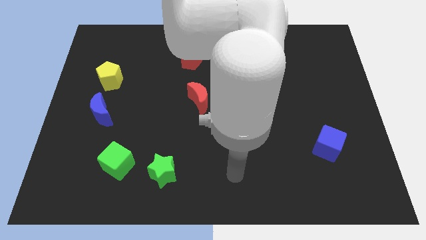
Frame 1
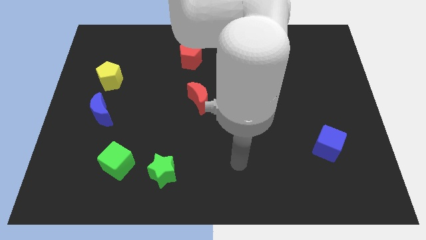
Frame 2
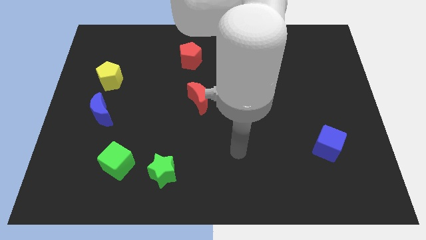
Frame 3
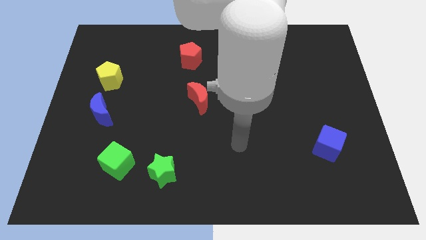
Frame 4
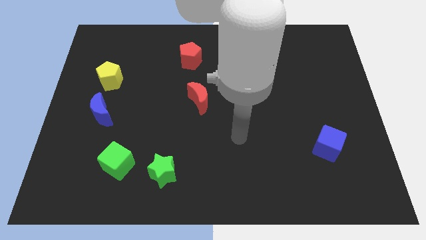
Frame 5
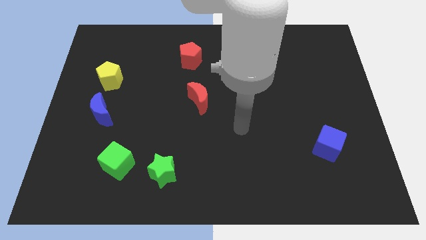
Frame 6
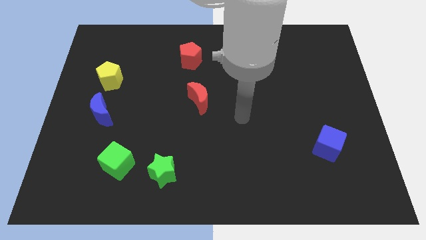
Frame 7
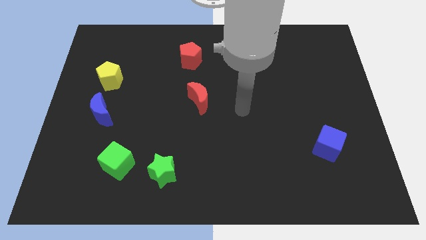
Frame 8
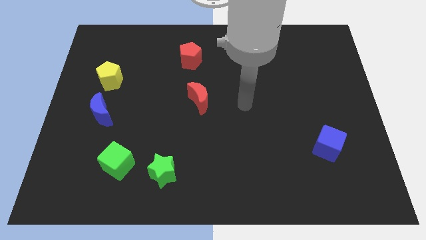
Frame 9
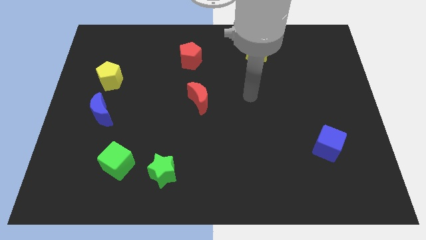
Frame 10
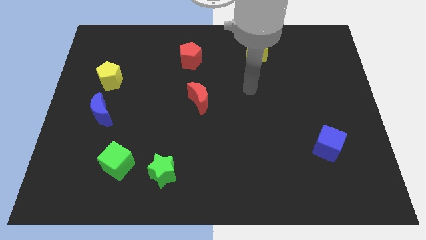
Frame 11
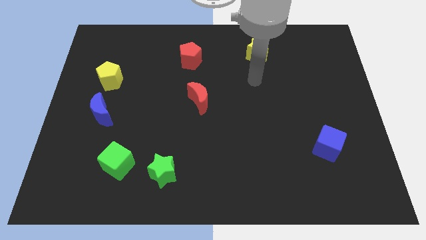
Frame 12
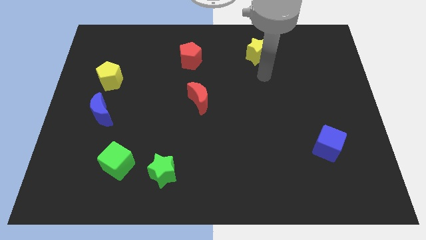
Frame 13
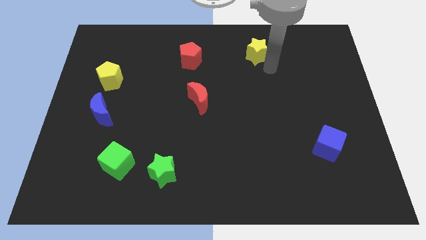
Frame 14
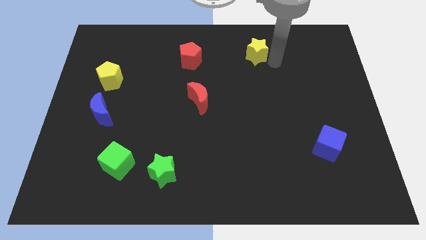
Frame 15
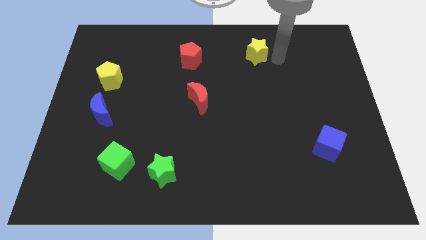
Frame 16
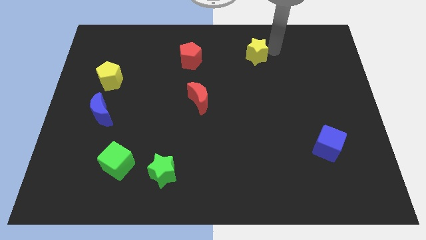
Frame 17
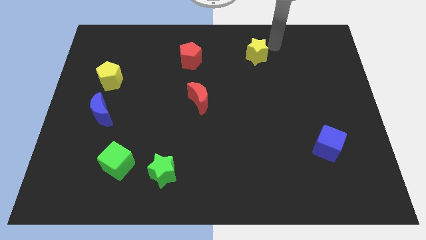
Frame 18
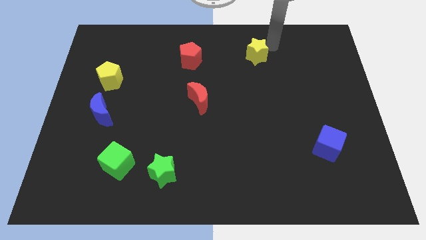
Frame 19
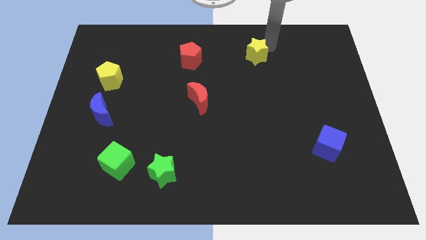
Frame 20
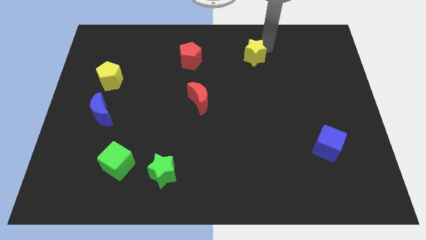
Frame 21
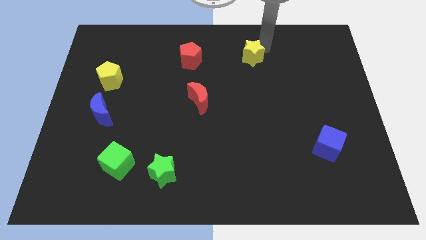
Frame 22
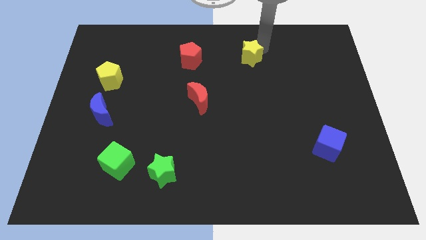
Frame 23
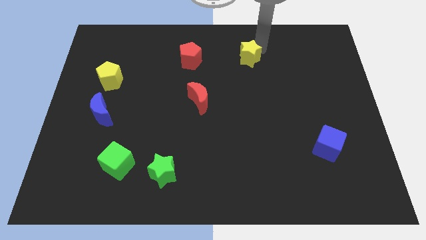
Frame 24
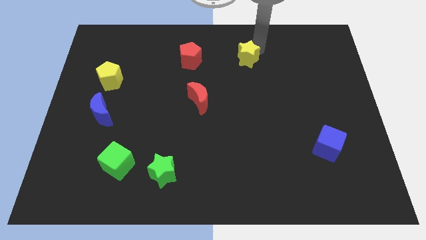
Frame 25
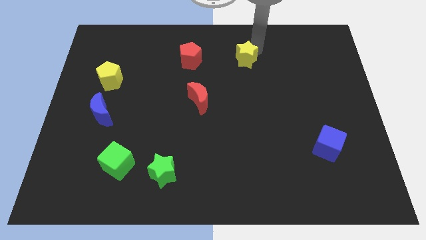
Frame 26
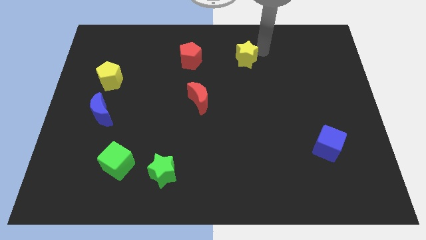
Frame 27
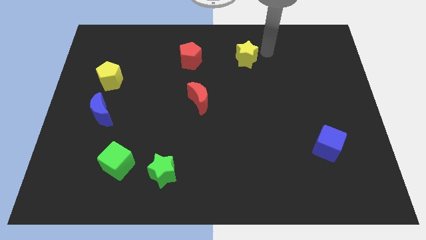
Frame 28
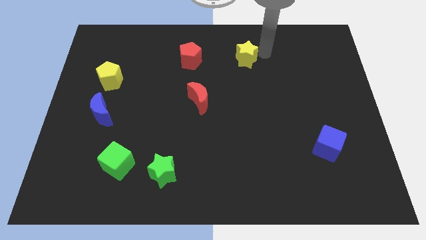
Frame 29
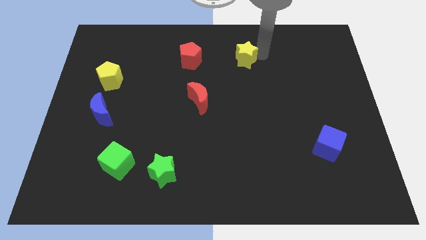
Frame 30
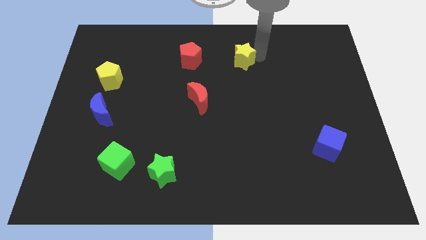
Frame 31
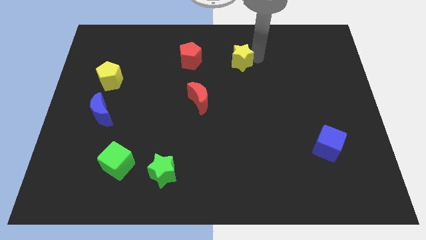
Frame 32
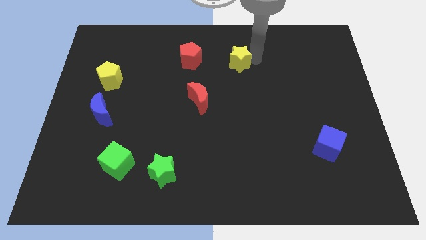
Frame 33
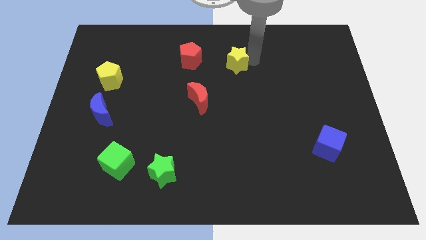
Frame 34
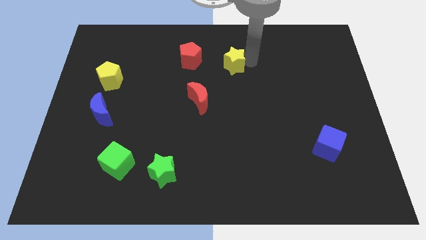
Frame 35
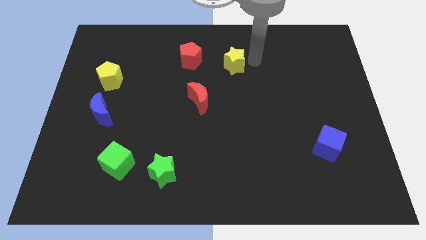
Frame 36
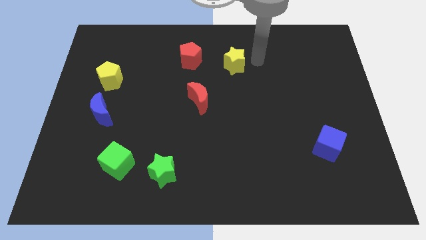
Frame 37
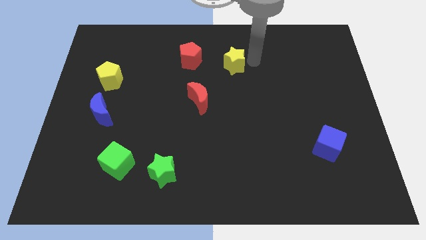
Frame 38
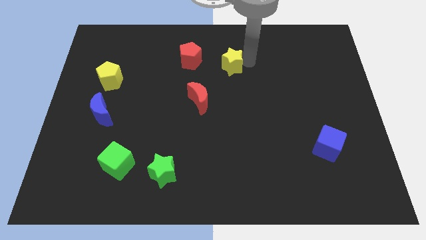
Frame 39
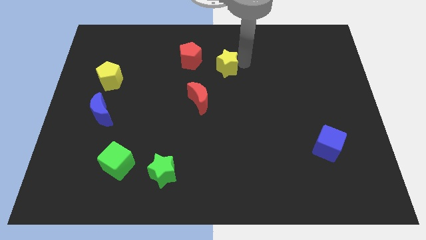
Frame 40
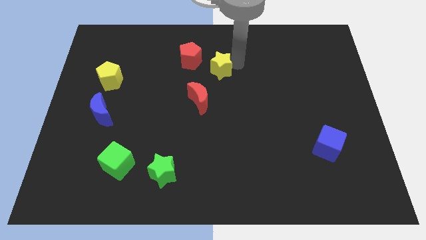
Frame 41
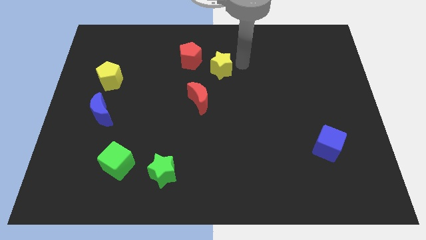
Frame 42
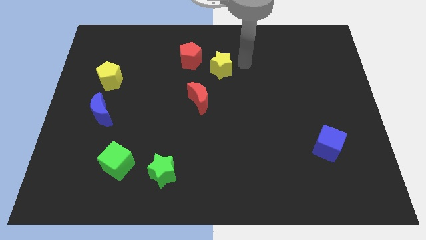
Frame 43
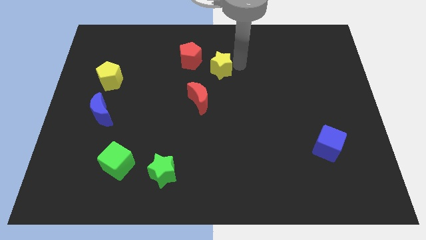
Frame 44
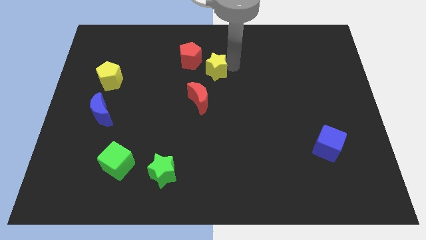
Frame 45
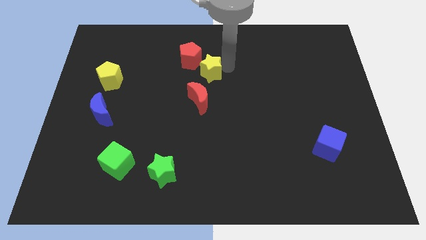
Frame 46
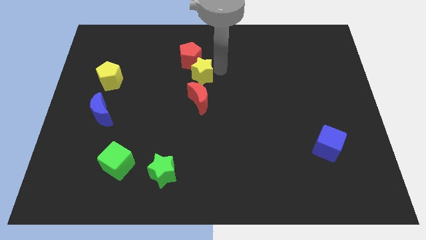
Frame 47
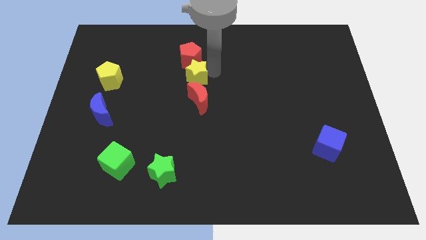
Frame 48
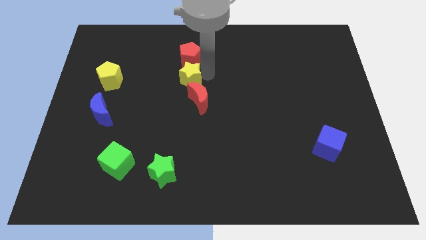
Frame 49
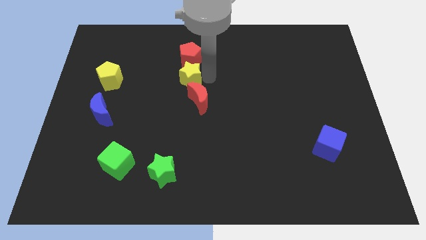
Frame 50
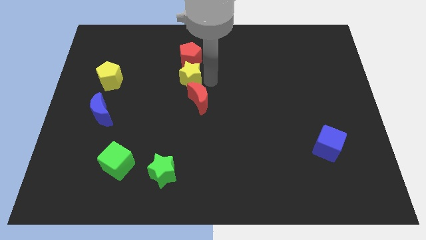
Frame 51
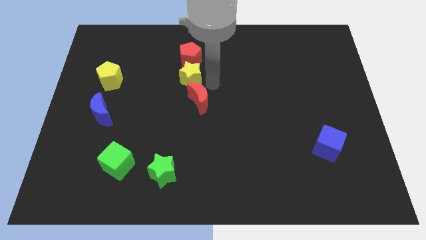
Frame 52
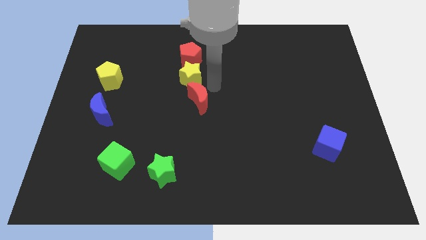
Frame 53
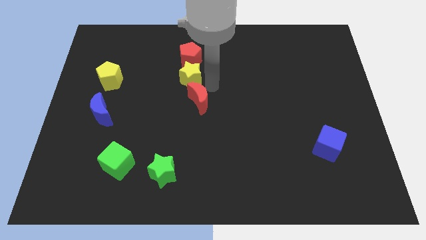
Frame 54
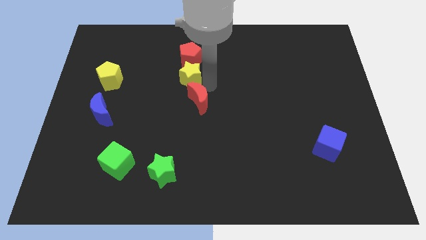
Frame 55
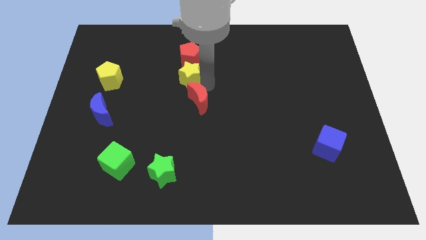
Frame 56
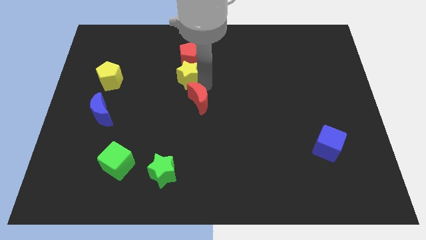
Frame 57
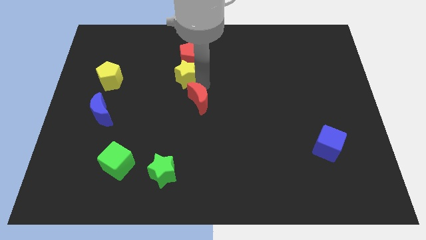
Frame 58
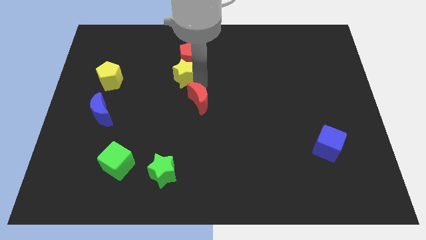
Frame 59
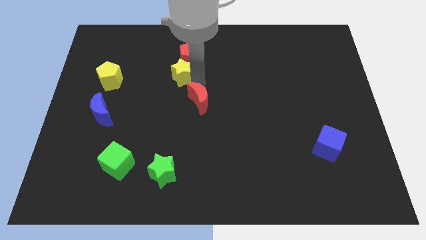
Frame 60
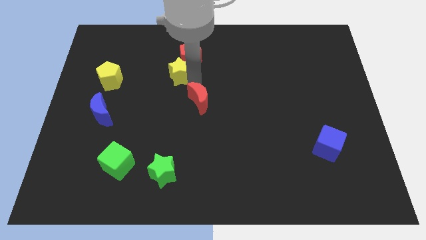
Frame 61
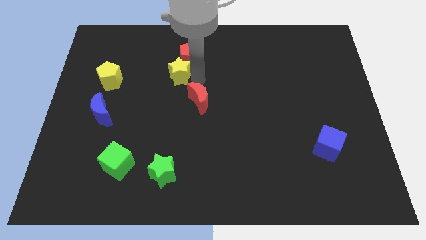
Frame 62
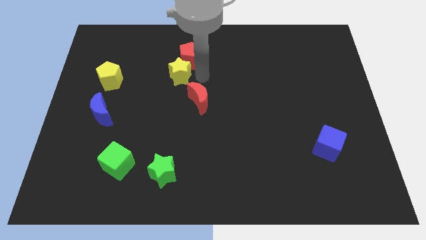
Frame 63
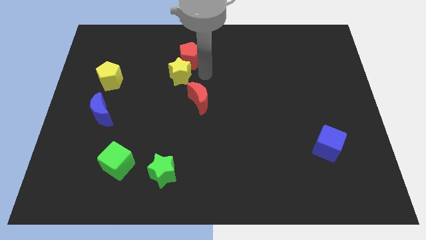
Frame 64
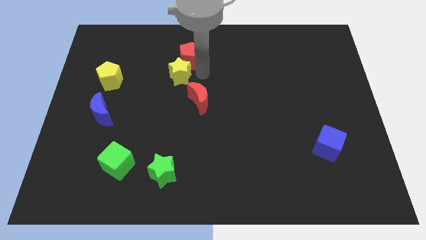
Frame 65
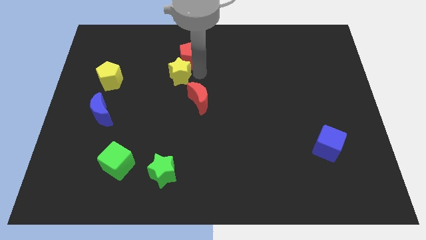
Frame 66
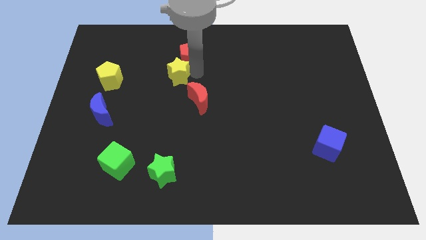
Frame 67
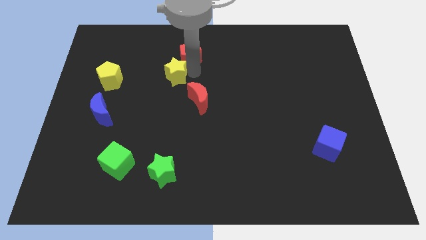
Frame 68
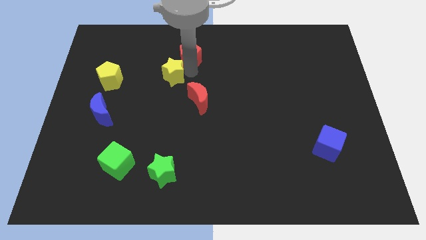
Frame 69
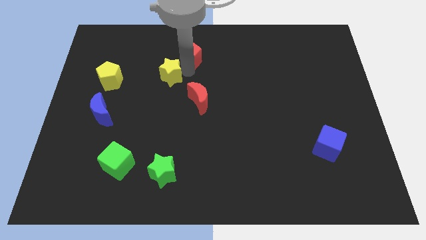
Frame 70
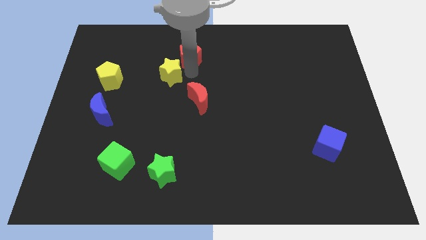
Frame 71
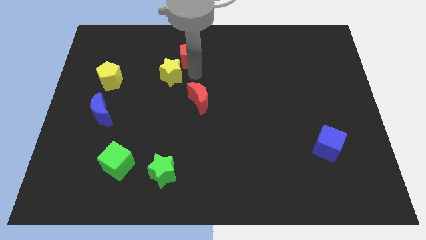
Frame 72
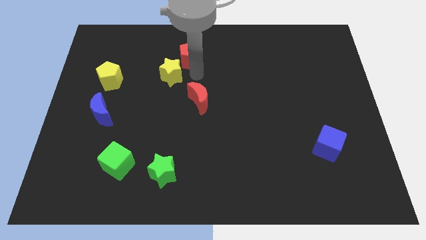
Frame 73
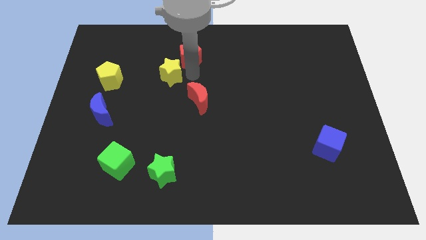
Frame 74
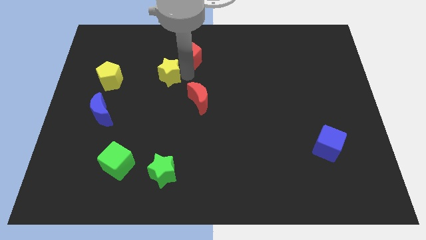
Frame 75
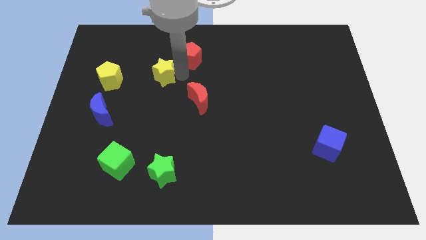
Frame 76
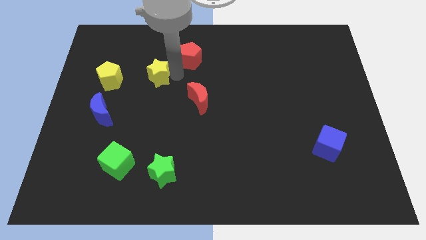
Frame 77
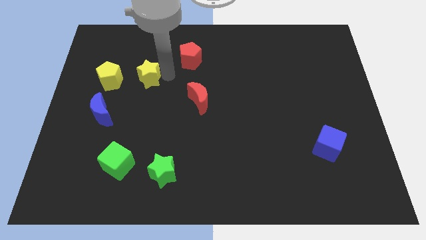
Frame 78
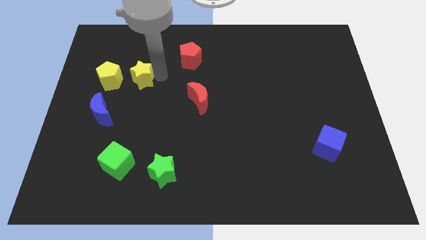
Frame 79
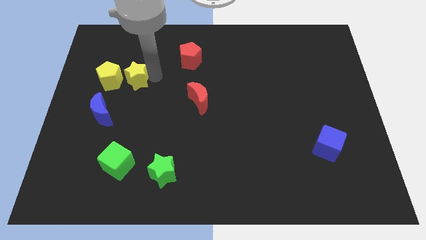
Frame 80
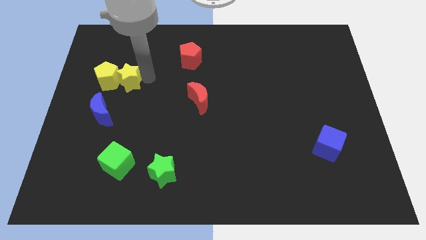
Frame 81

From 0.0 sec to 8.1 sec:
put the yellow star towards the yellow pentagon
